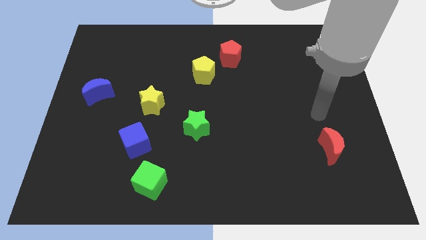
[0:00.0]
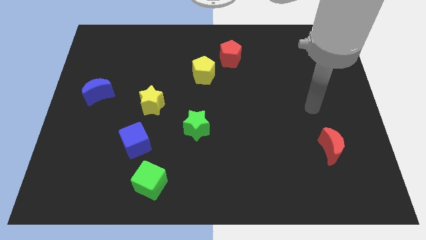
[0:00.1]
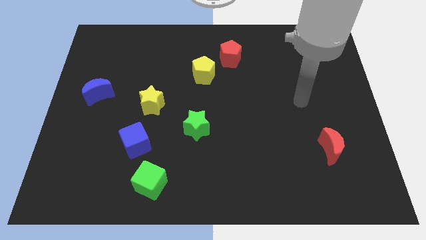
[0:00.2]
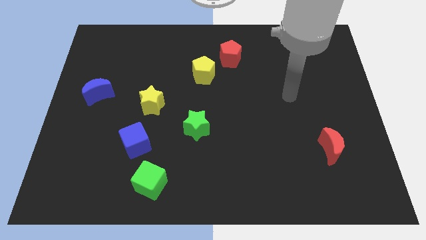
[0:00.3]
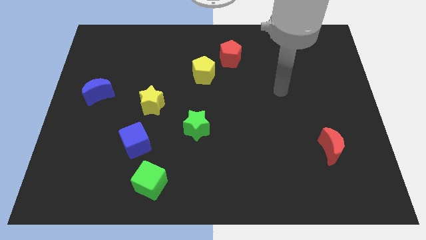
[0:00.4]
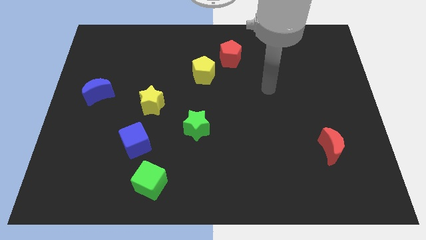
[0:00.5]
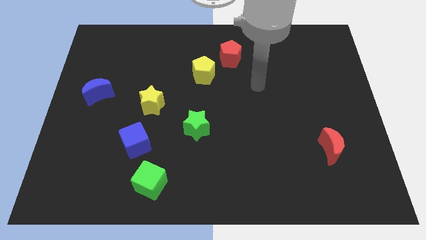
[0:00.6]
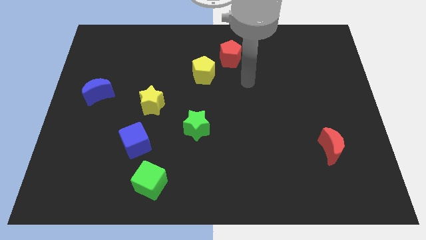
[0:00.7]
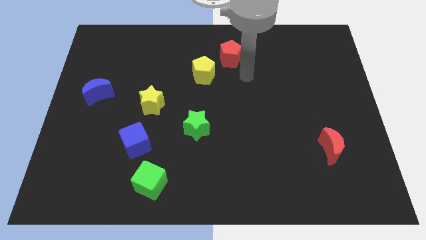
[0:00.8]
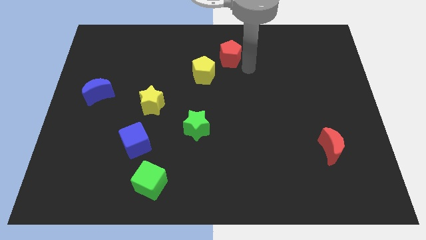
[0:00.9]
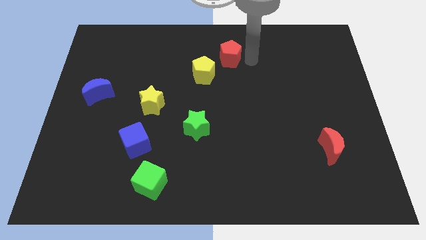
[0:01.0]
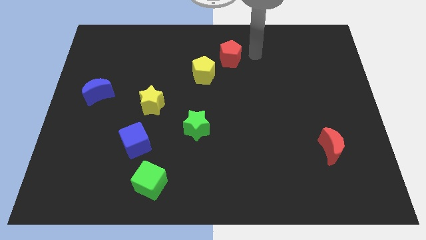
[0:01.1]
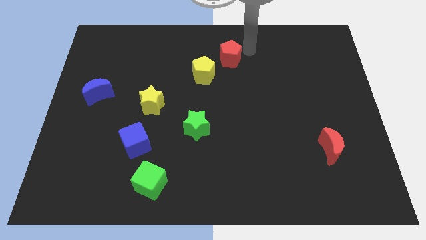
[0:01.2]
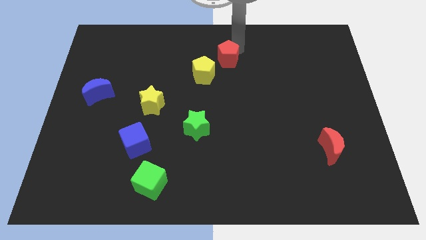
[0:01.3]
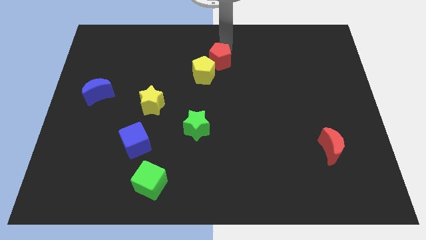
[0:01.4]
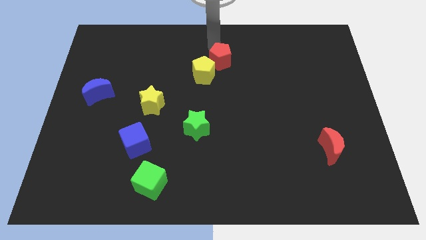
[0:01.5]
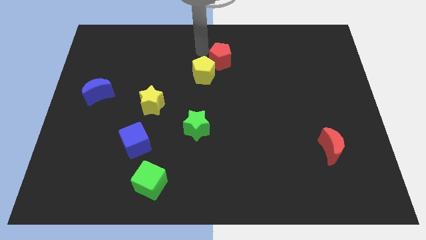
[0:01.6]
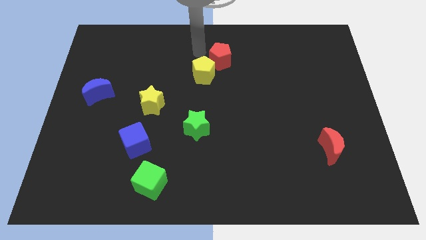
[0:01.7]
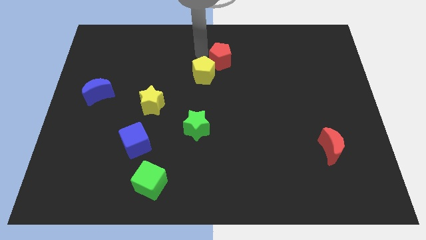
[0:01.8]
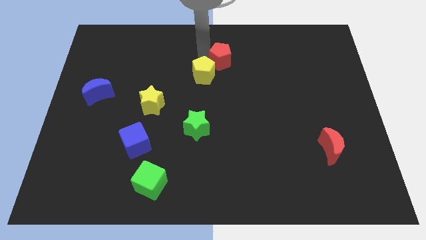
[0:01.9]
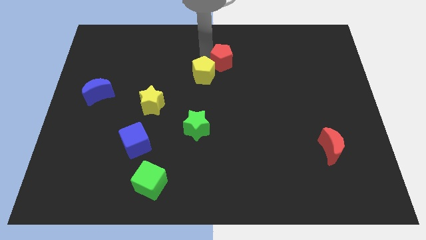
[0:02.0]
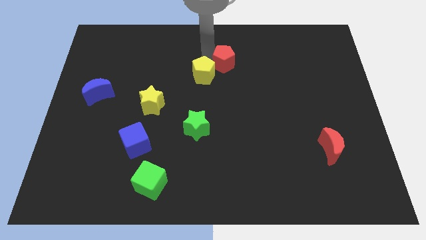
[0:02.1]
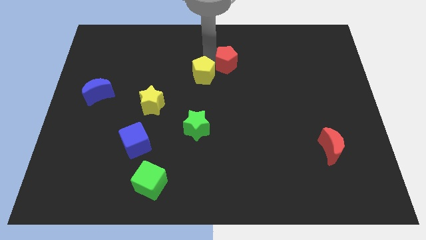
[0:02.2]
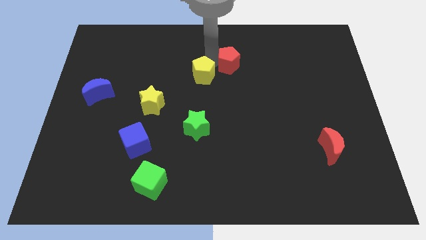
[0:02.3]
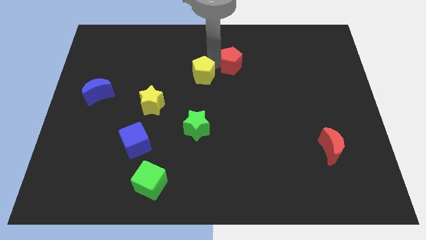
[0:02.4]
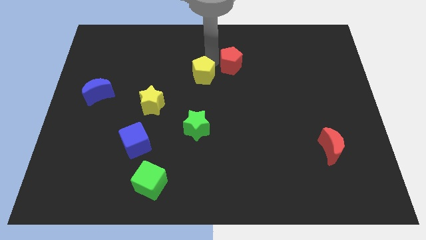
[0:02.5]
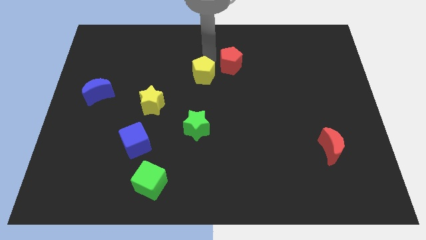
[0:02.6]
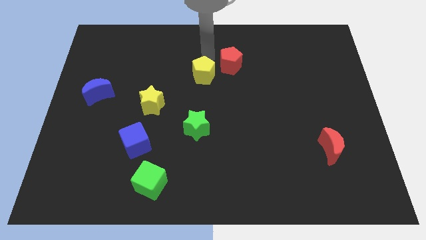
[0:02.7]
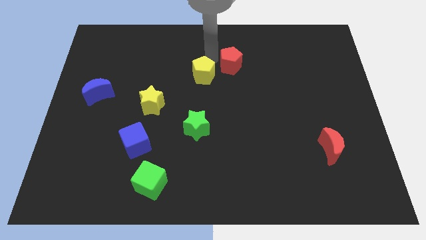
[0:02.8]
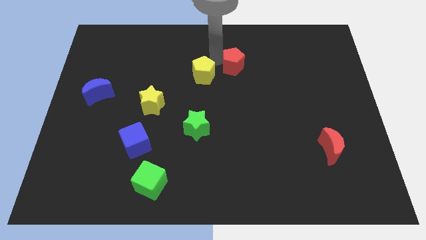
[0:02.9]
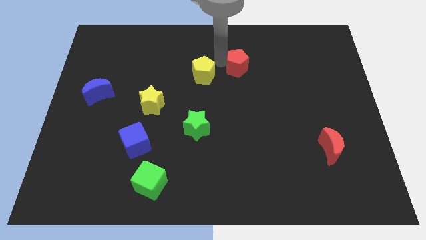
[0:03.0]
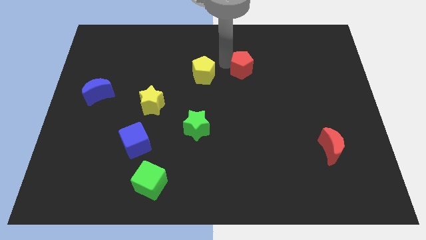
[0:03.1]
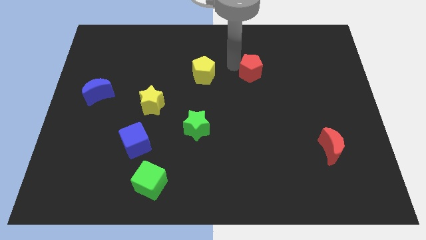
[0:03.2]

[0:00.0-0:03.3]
slightly move the red pentagon downwards and then to the right

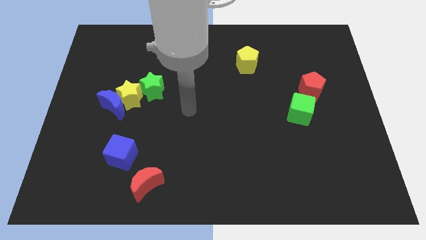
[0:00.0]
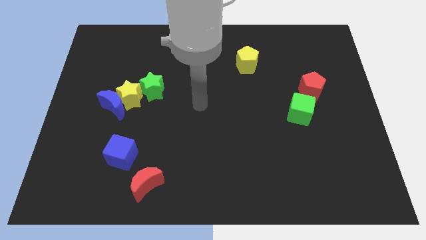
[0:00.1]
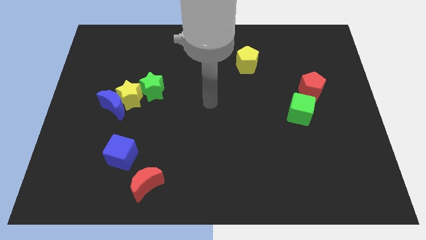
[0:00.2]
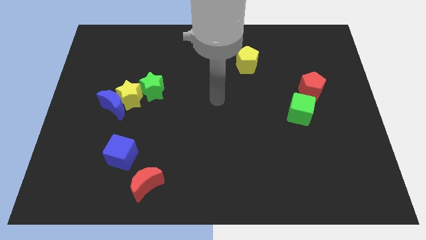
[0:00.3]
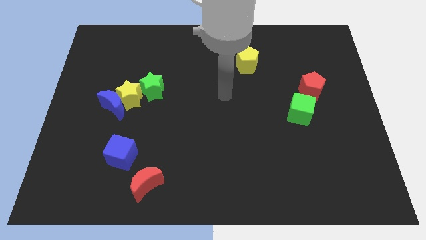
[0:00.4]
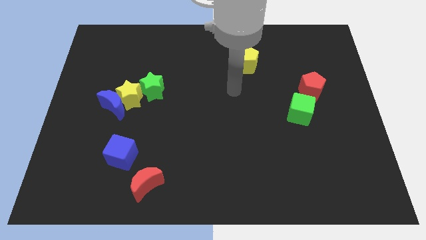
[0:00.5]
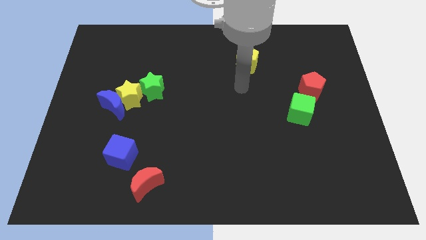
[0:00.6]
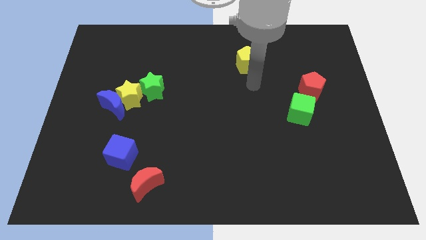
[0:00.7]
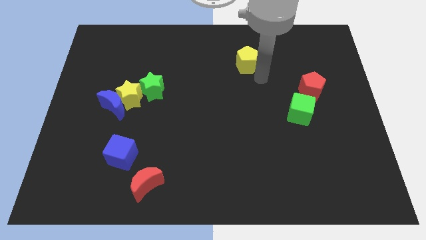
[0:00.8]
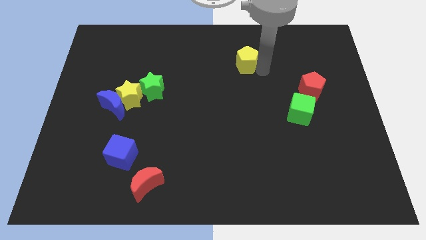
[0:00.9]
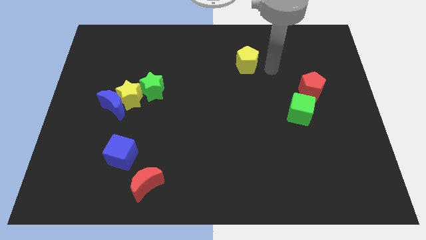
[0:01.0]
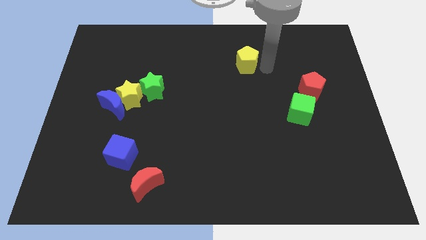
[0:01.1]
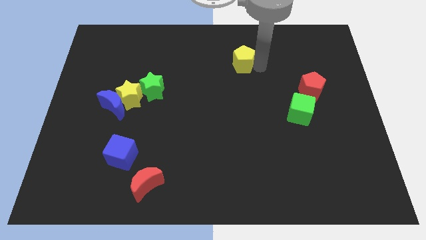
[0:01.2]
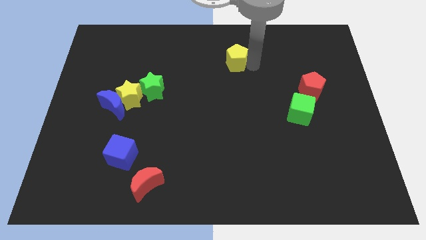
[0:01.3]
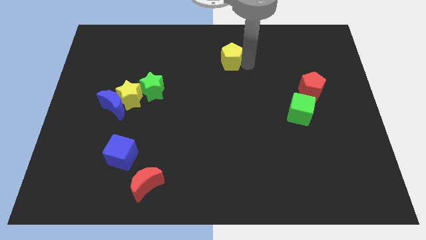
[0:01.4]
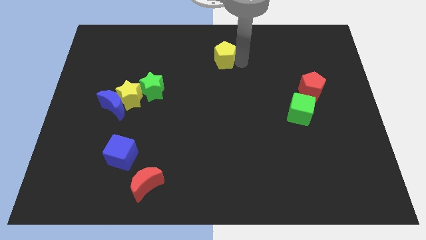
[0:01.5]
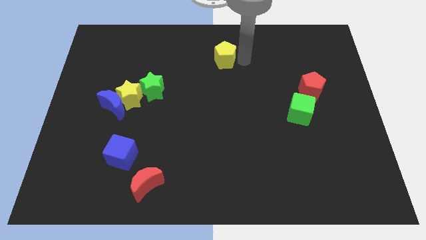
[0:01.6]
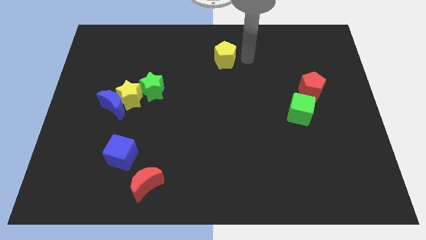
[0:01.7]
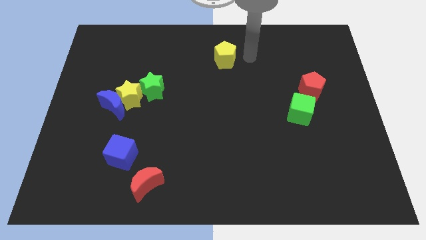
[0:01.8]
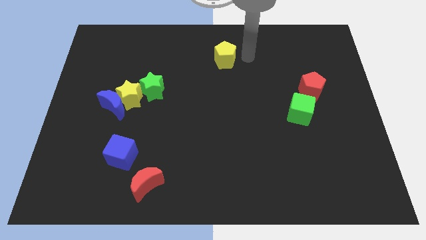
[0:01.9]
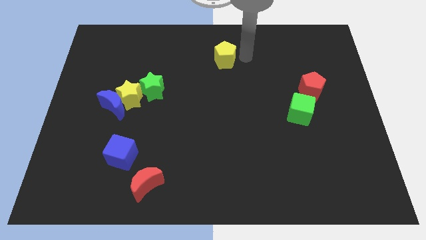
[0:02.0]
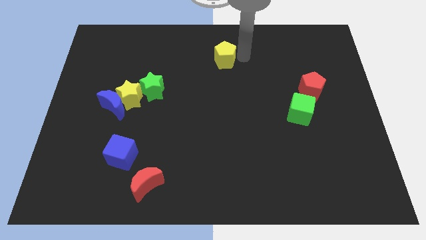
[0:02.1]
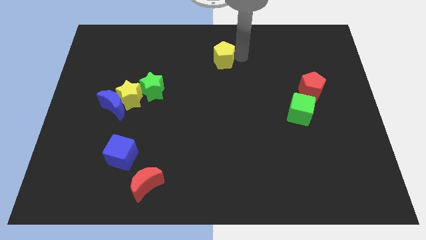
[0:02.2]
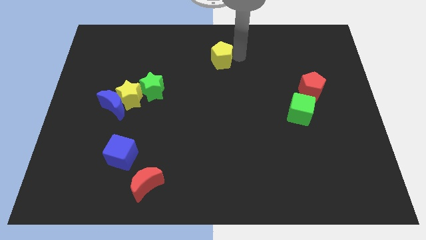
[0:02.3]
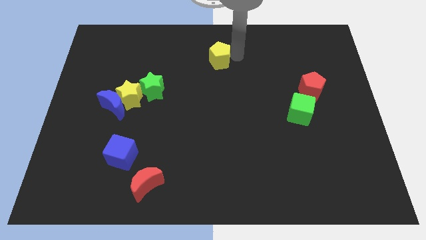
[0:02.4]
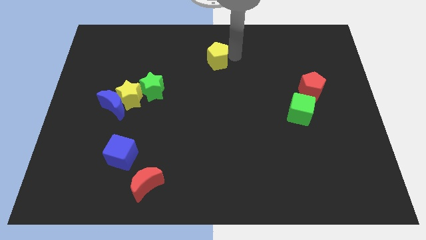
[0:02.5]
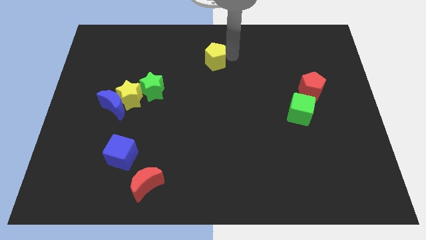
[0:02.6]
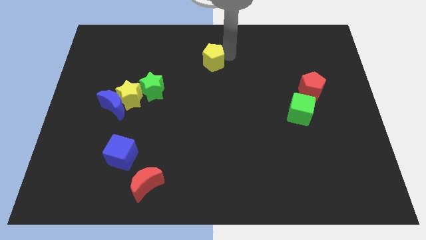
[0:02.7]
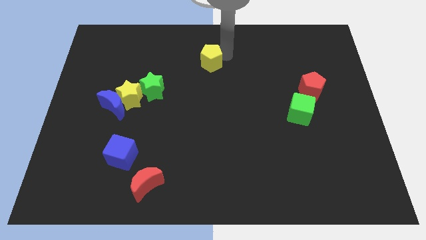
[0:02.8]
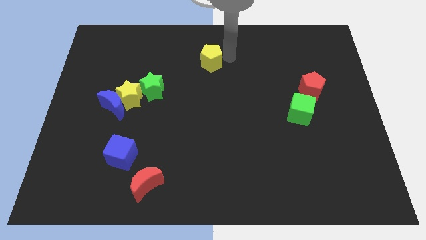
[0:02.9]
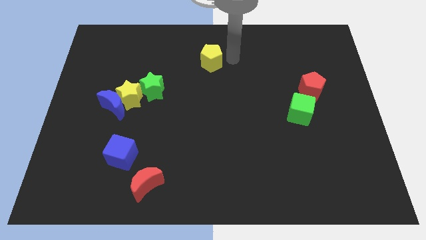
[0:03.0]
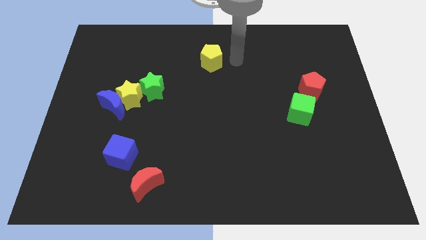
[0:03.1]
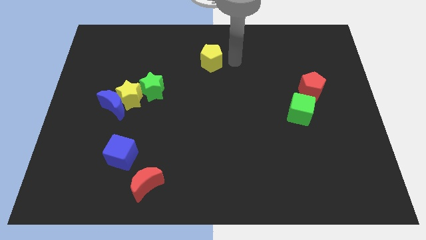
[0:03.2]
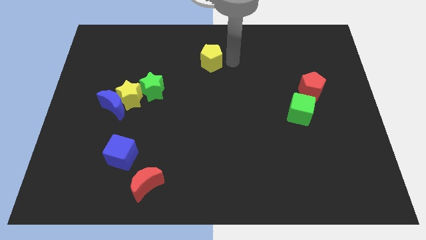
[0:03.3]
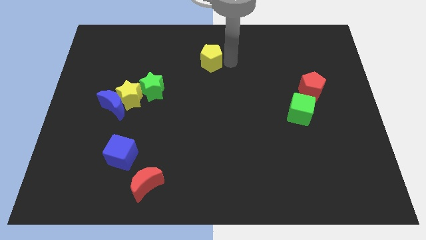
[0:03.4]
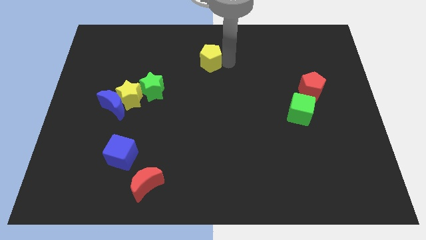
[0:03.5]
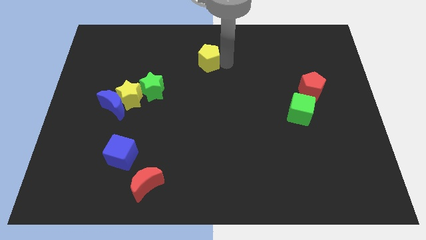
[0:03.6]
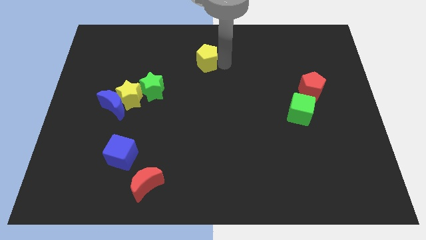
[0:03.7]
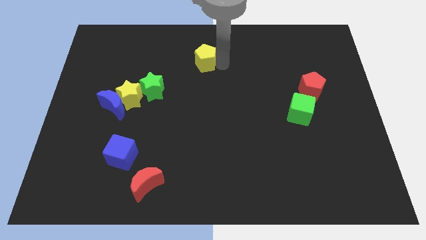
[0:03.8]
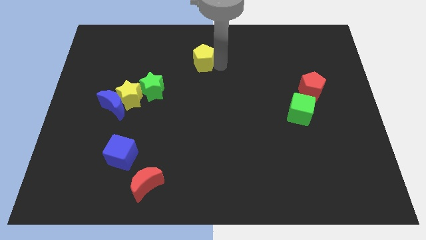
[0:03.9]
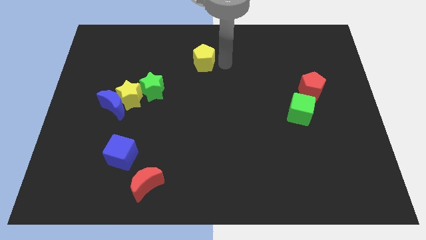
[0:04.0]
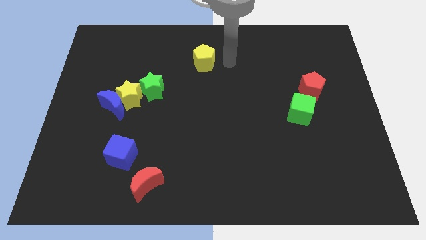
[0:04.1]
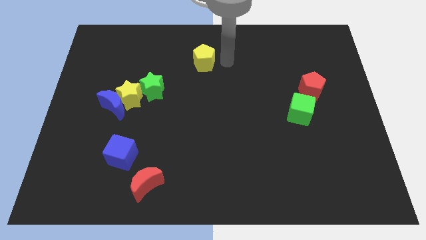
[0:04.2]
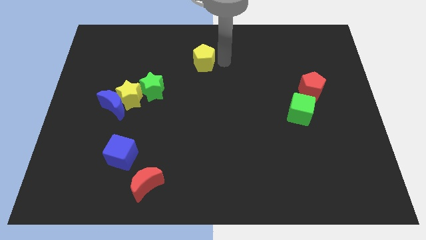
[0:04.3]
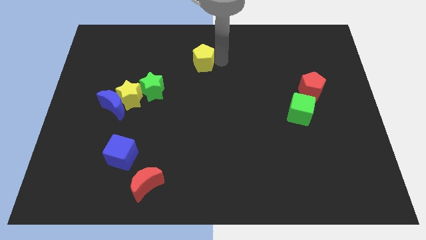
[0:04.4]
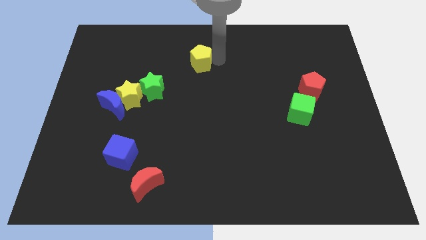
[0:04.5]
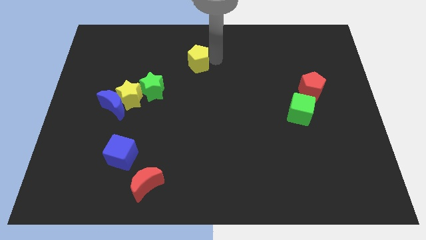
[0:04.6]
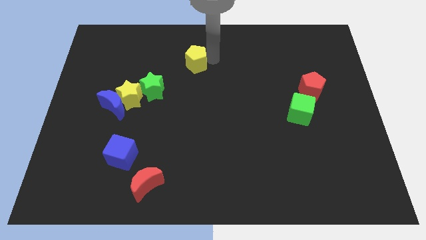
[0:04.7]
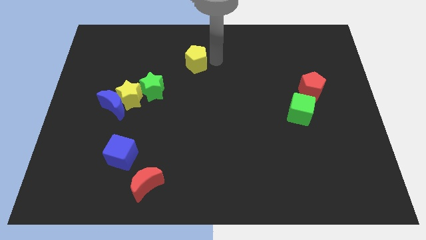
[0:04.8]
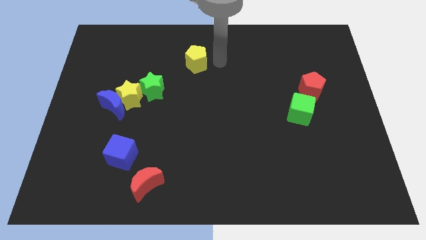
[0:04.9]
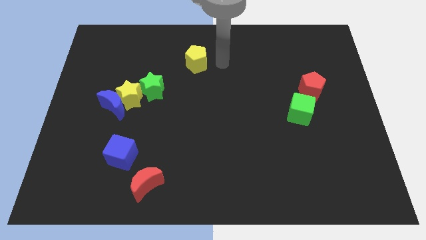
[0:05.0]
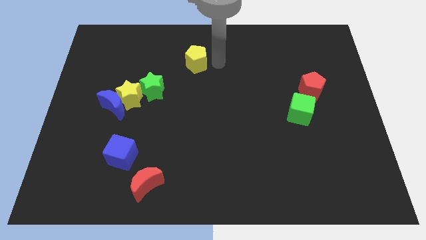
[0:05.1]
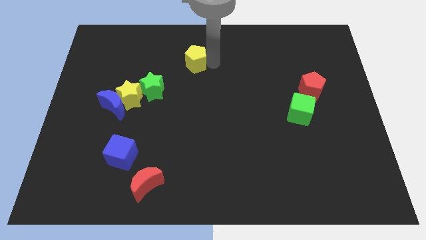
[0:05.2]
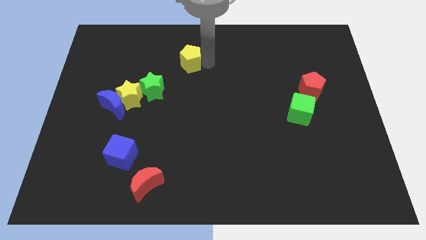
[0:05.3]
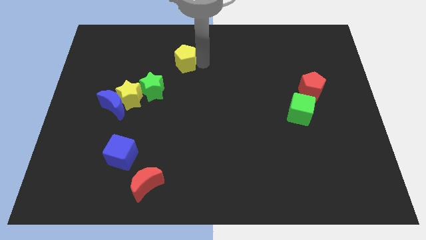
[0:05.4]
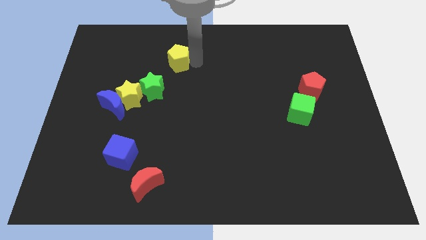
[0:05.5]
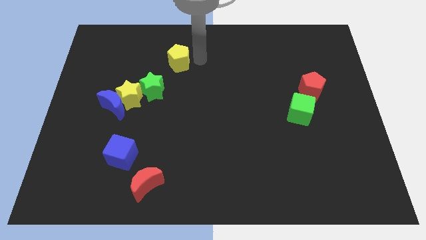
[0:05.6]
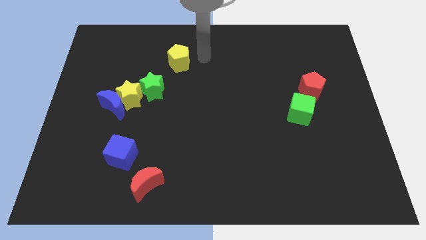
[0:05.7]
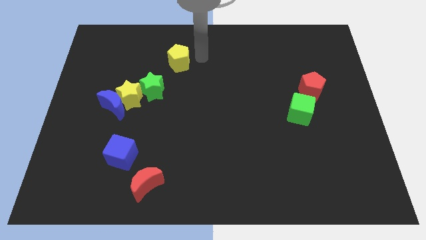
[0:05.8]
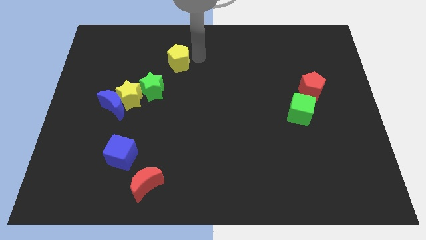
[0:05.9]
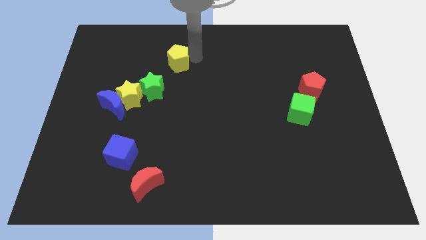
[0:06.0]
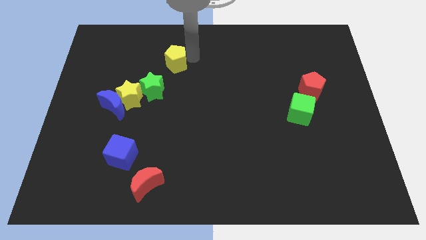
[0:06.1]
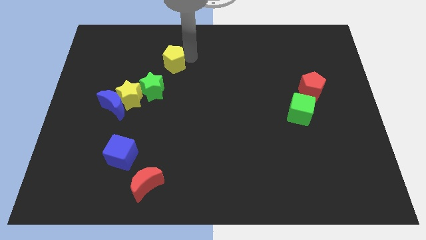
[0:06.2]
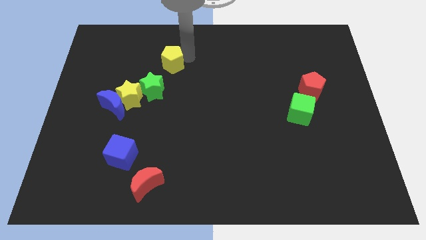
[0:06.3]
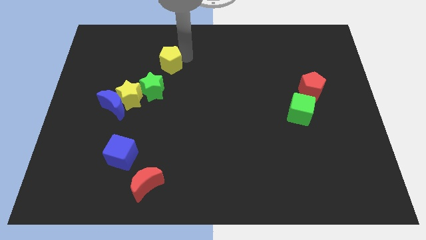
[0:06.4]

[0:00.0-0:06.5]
move the yellow pentagon left
